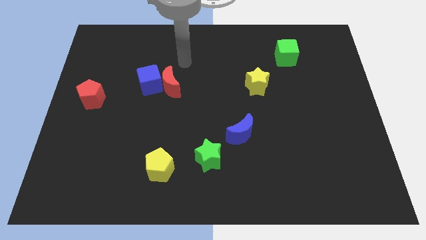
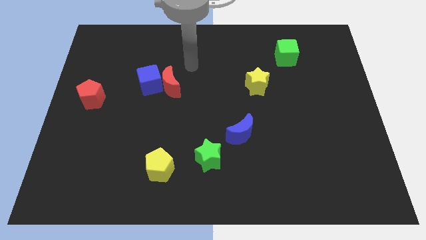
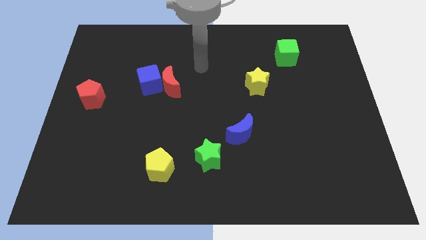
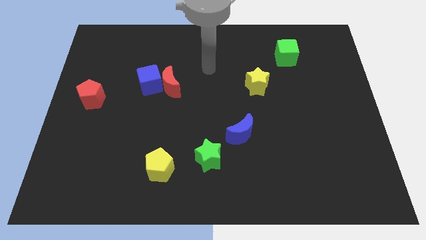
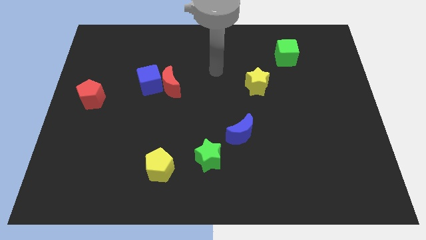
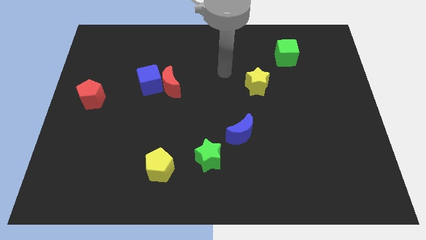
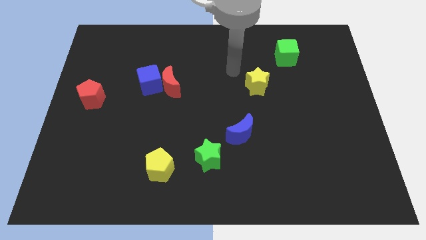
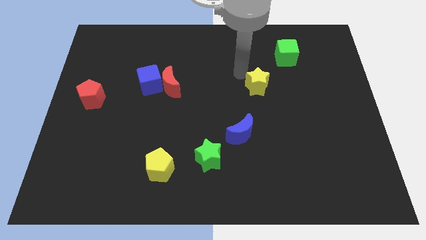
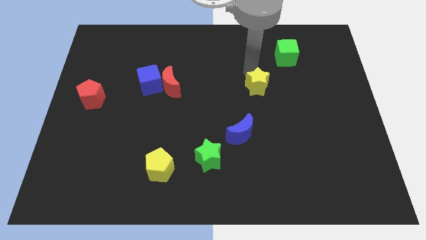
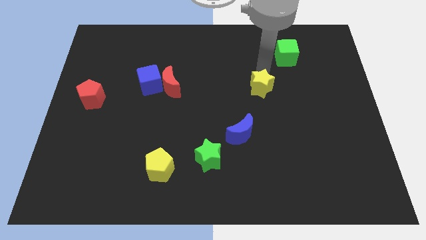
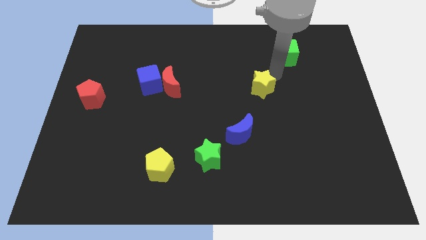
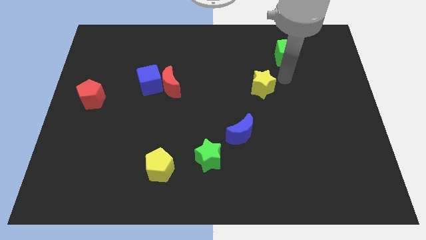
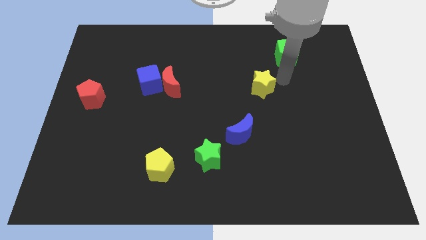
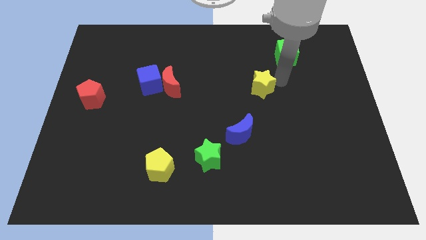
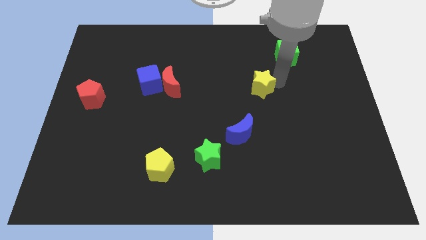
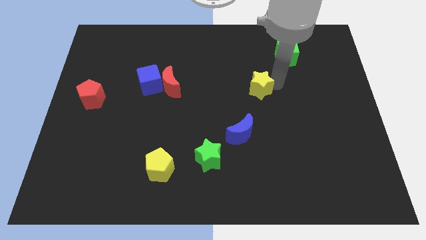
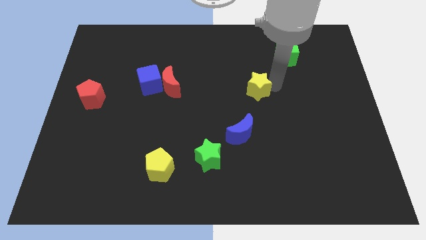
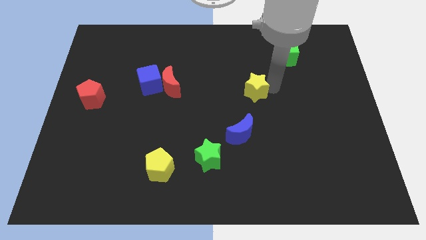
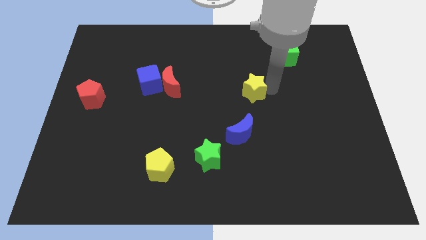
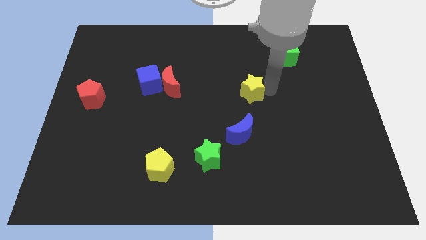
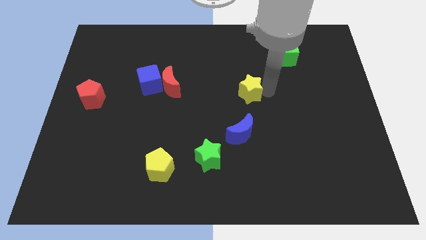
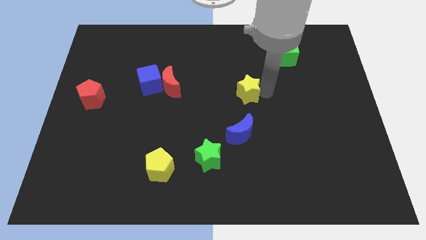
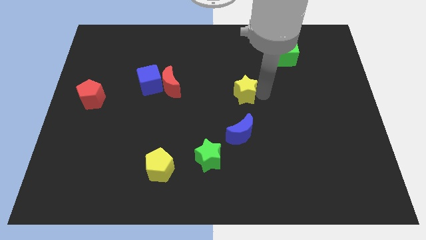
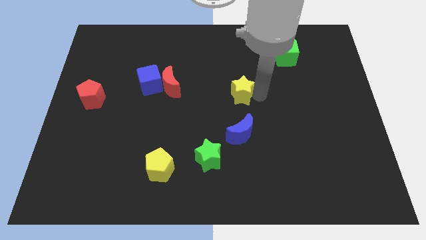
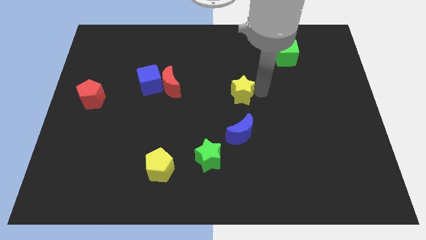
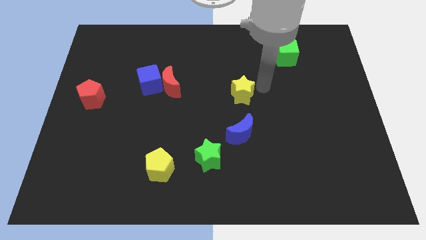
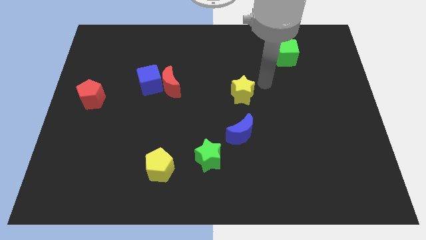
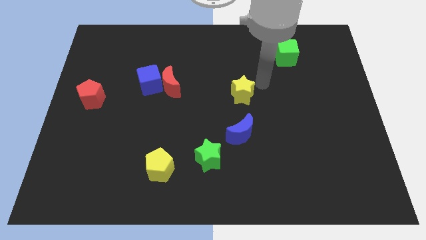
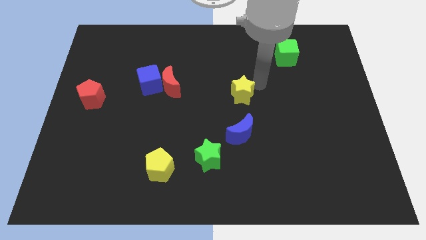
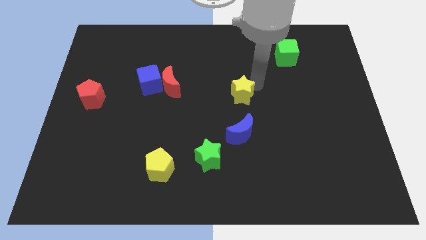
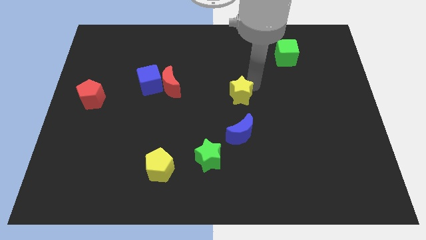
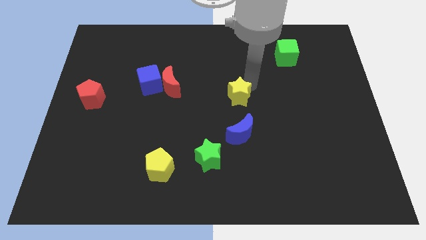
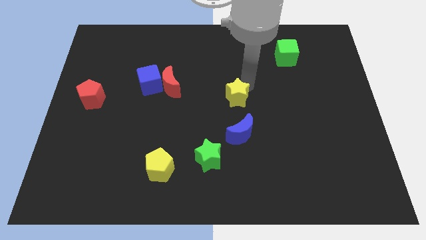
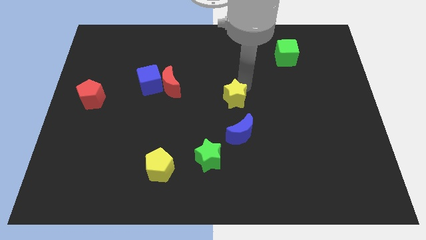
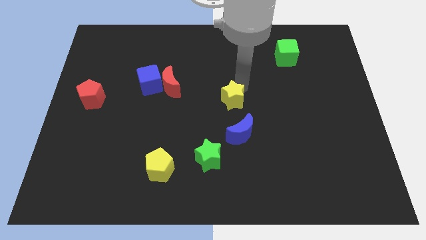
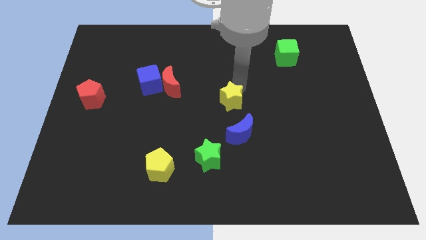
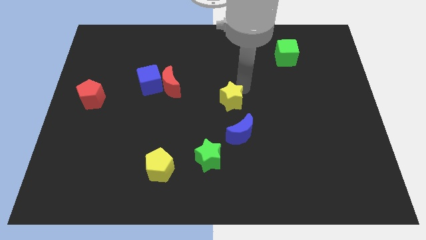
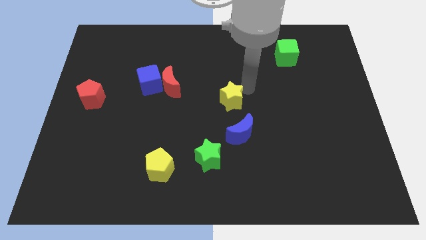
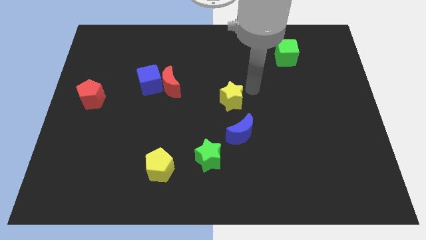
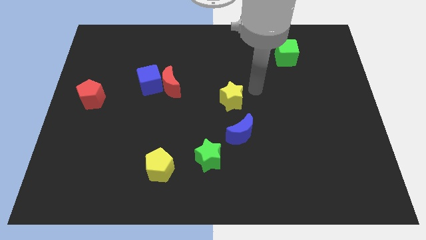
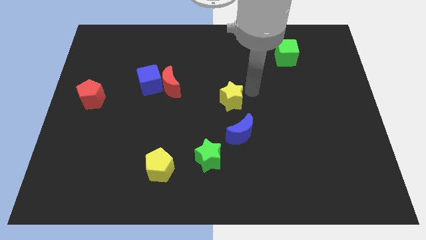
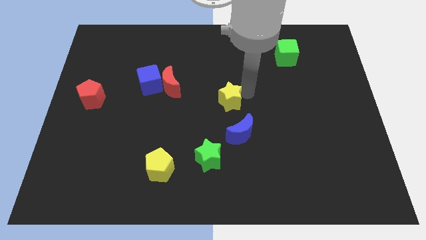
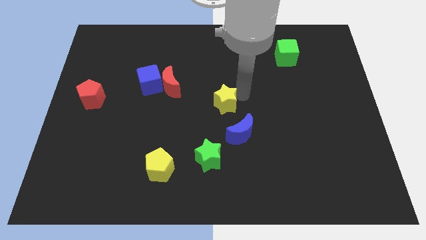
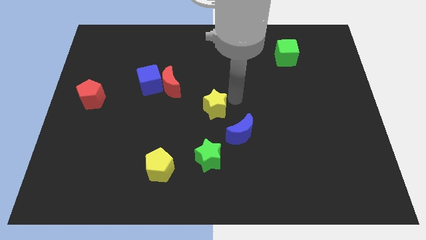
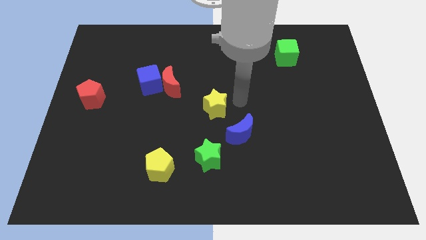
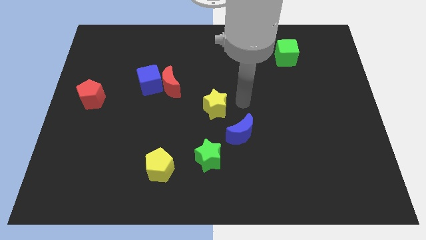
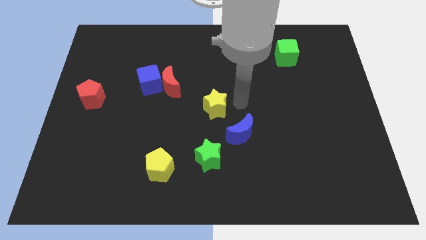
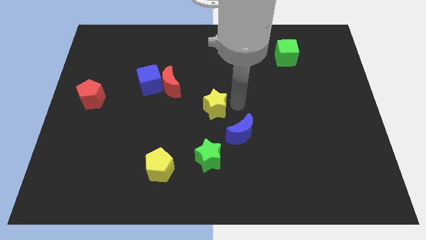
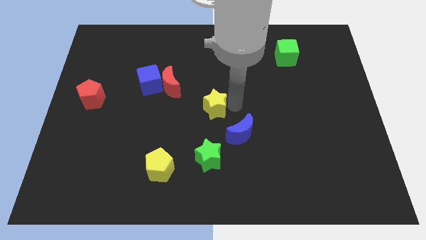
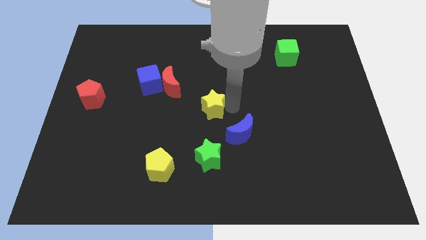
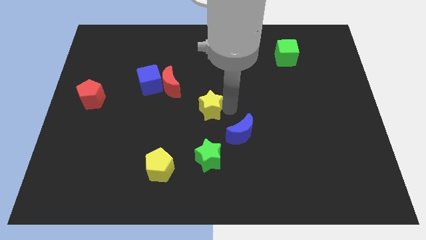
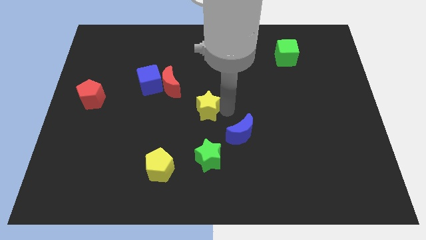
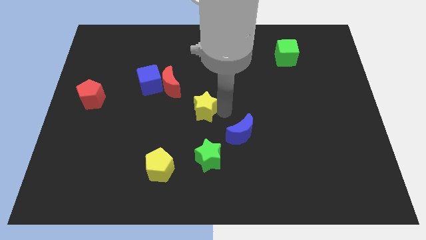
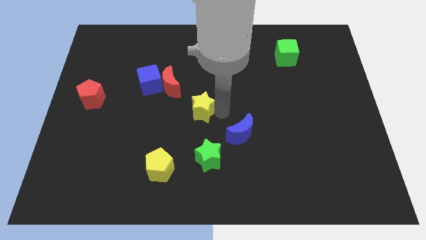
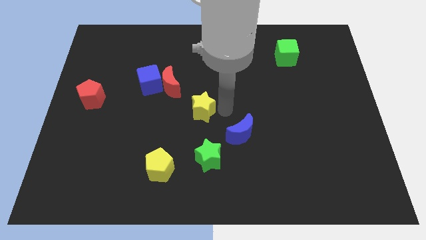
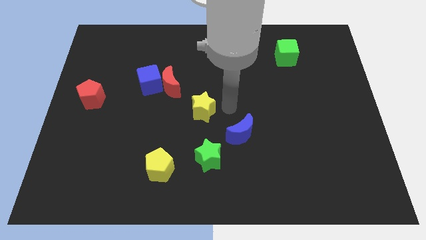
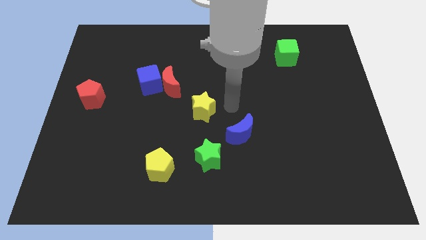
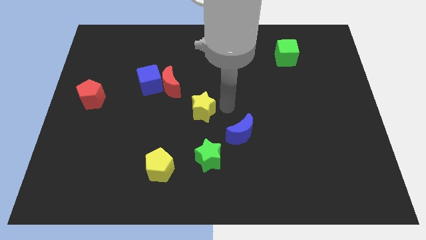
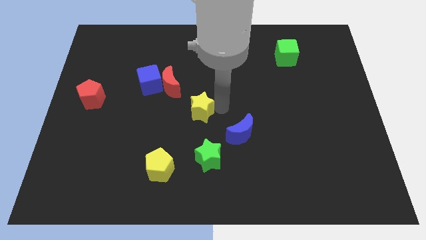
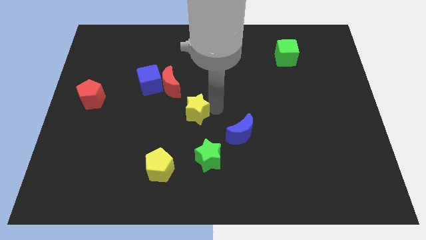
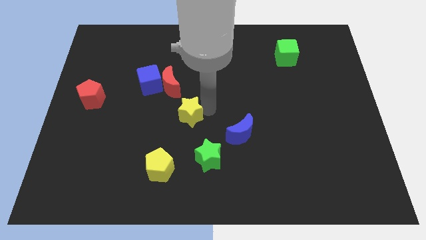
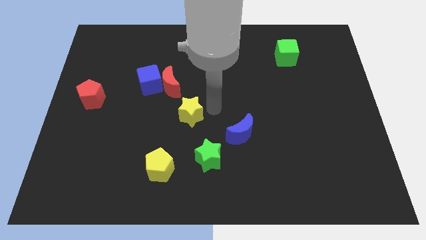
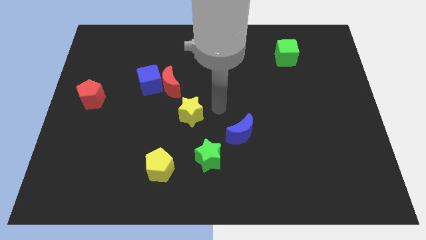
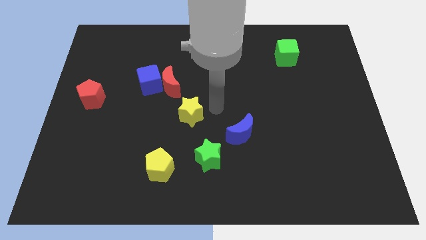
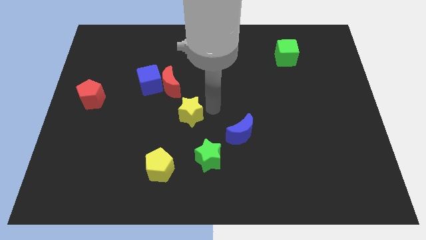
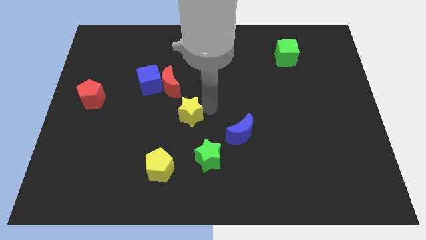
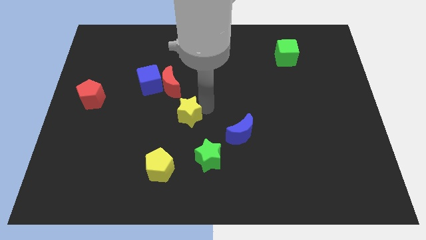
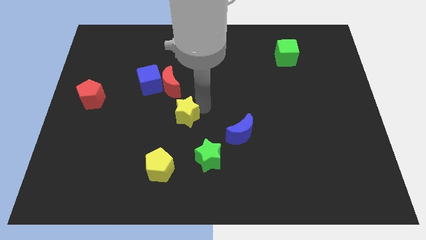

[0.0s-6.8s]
slide the yellow star to the bottom side of the red moon
